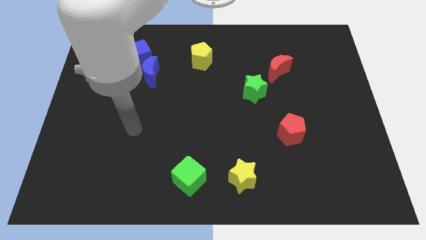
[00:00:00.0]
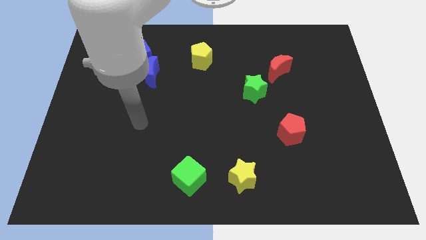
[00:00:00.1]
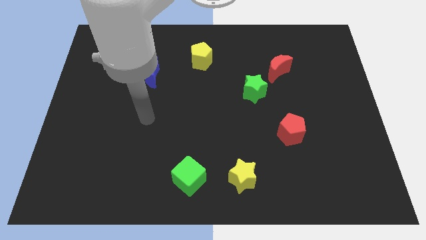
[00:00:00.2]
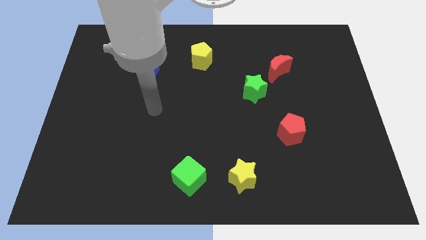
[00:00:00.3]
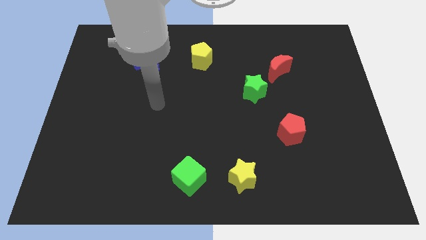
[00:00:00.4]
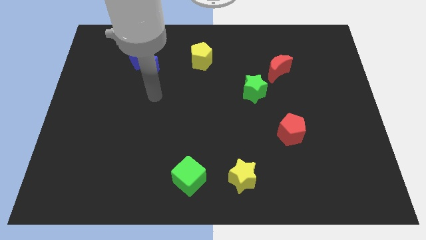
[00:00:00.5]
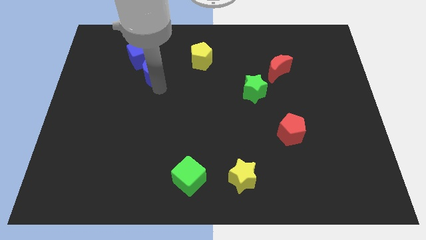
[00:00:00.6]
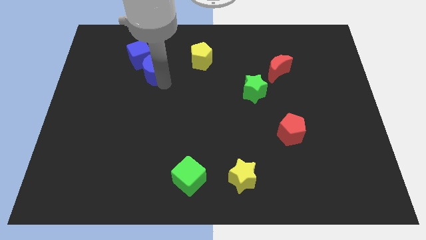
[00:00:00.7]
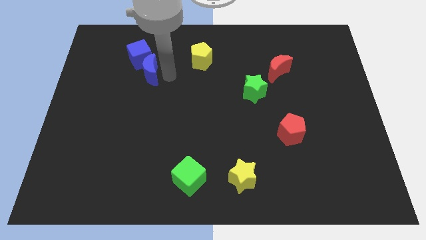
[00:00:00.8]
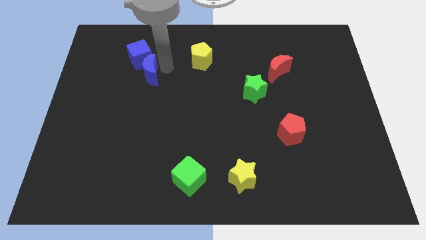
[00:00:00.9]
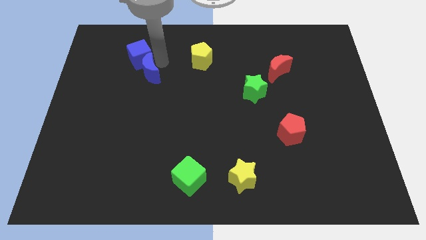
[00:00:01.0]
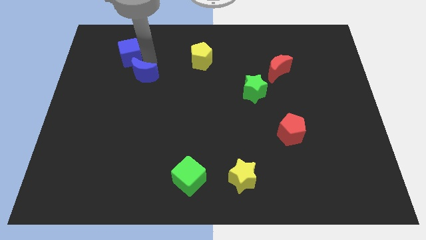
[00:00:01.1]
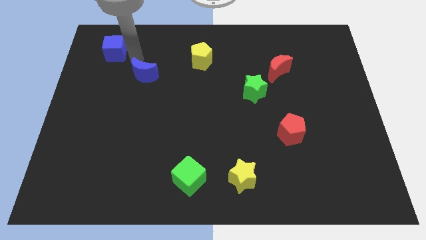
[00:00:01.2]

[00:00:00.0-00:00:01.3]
separate the blue moon from the blue cube

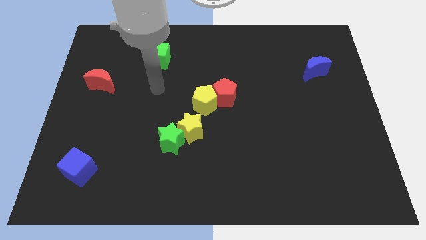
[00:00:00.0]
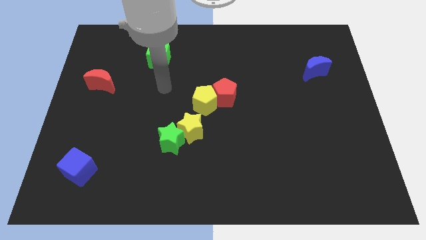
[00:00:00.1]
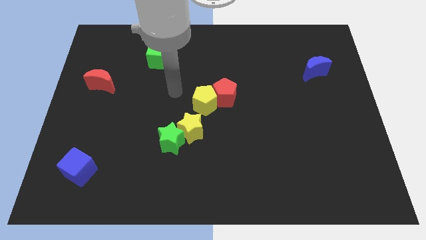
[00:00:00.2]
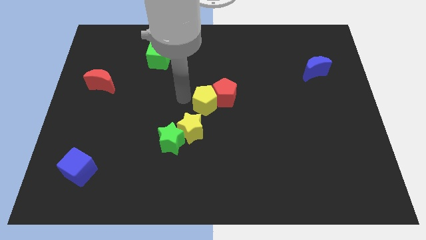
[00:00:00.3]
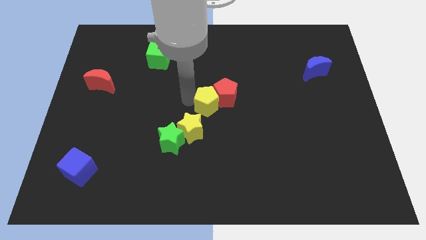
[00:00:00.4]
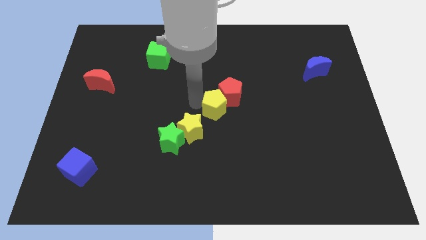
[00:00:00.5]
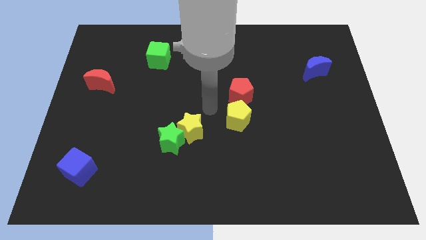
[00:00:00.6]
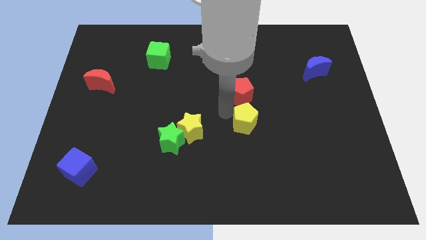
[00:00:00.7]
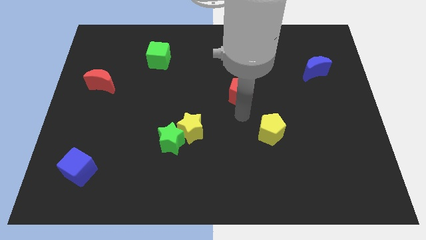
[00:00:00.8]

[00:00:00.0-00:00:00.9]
pull the red pentagon apart from the yellow pentagon

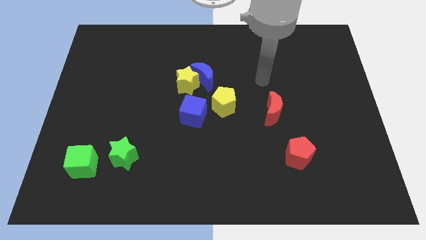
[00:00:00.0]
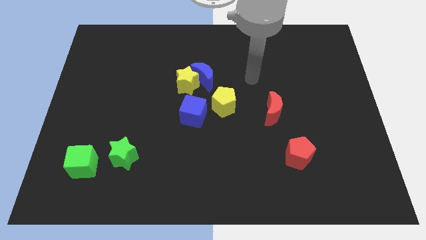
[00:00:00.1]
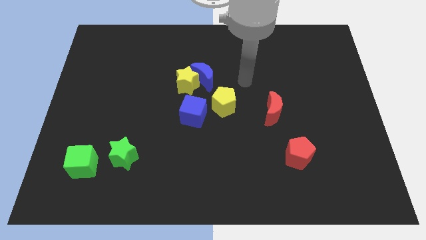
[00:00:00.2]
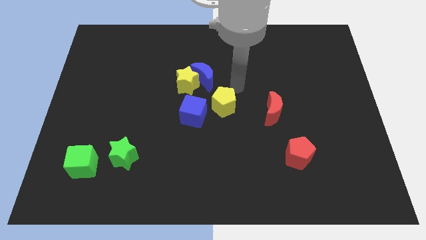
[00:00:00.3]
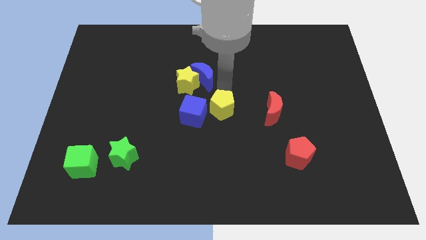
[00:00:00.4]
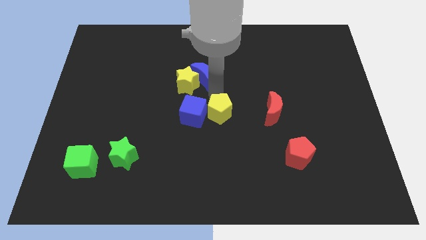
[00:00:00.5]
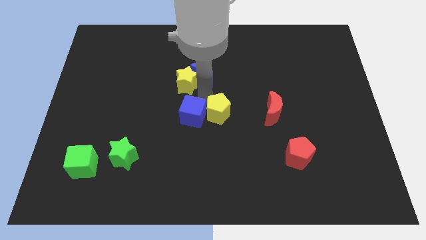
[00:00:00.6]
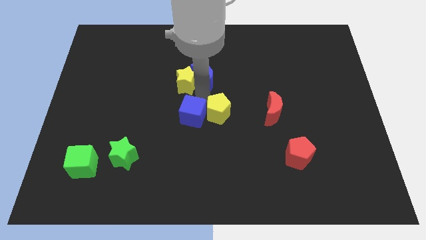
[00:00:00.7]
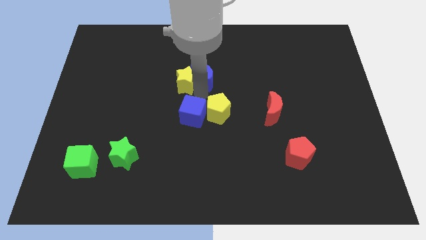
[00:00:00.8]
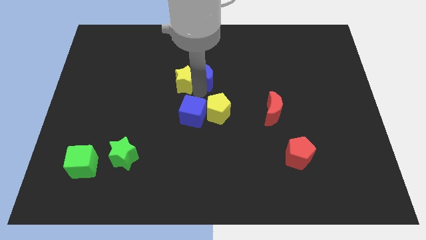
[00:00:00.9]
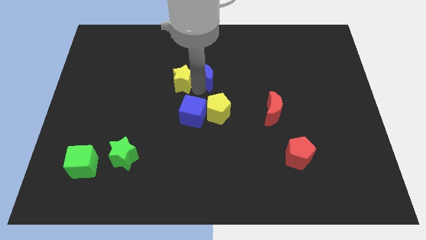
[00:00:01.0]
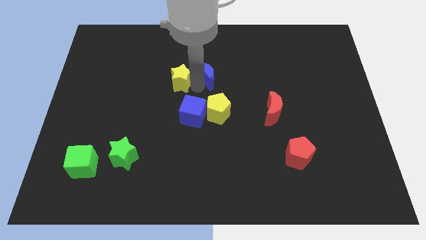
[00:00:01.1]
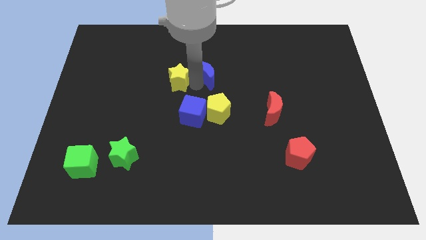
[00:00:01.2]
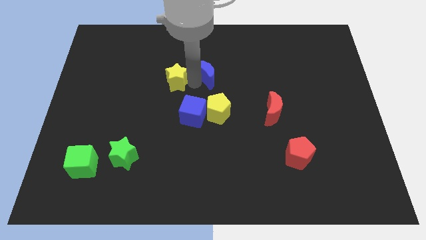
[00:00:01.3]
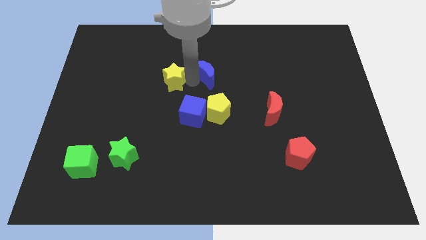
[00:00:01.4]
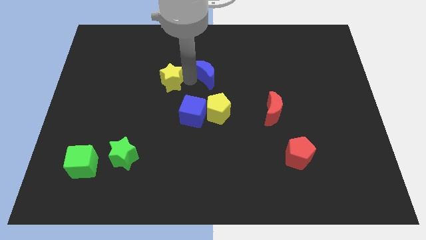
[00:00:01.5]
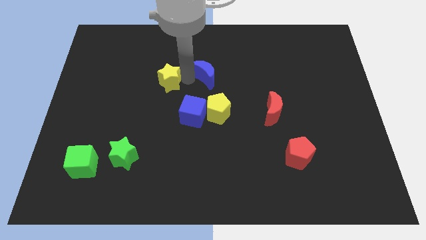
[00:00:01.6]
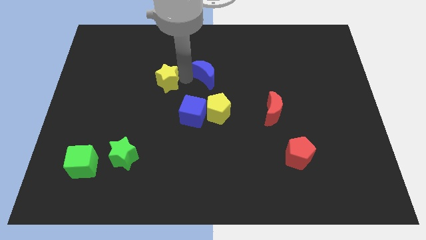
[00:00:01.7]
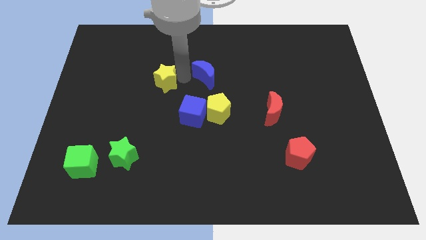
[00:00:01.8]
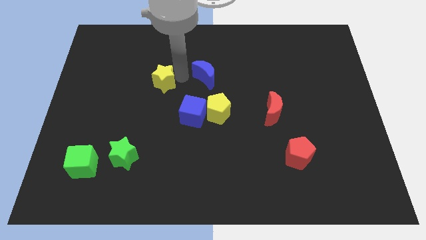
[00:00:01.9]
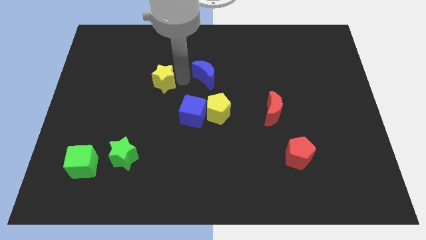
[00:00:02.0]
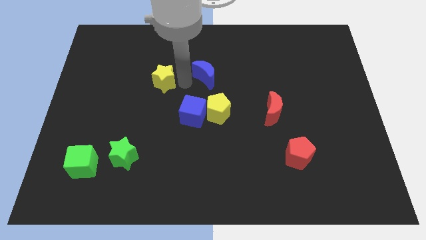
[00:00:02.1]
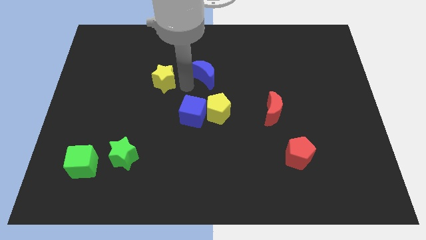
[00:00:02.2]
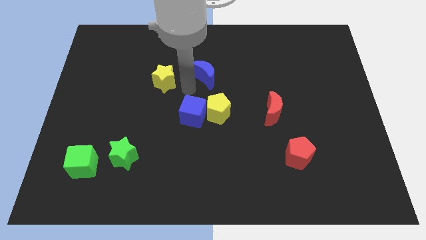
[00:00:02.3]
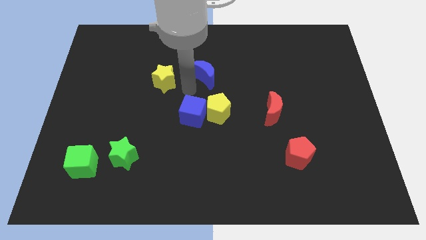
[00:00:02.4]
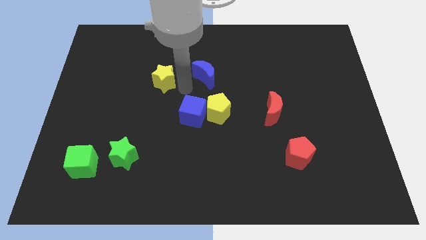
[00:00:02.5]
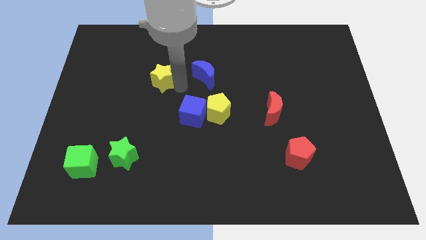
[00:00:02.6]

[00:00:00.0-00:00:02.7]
move the yellow star away from the blue moon and blue cube

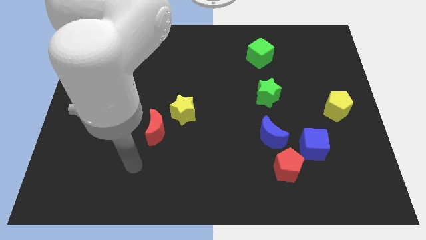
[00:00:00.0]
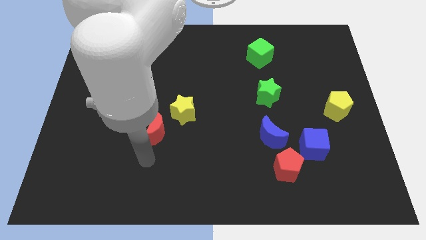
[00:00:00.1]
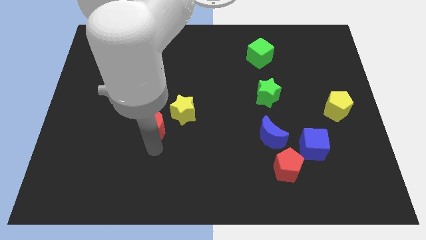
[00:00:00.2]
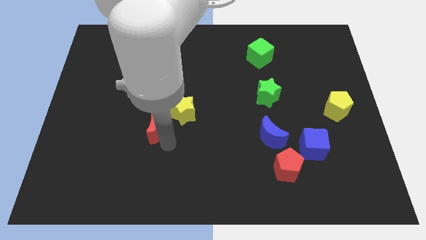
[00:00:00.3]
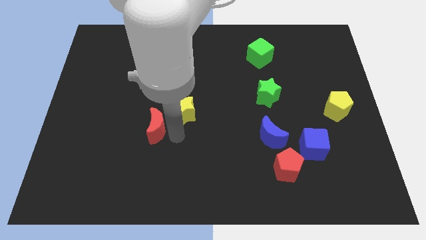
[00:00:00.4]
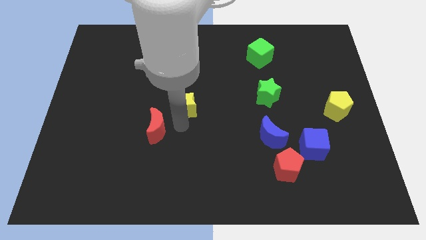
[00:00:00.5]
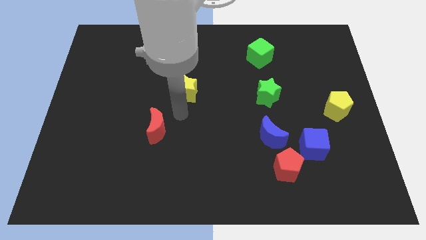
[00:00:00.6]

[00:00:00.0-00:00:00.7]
pull the red moon apart from the yellow star

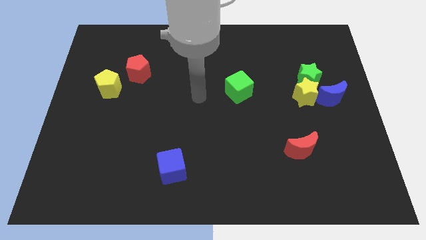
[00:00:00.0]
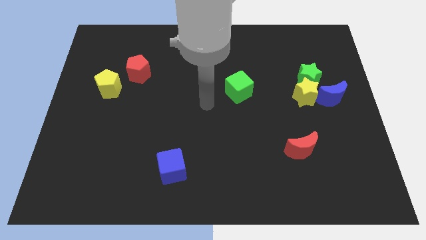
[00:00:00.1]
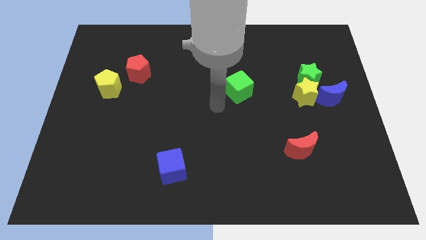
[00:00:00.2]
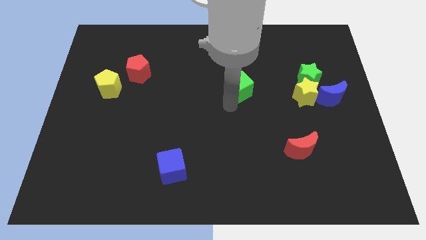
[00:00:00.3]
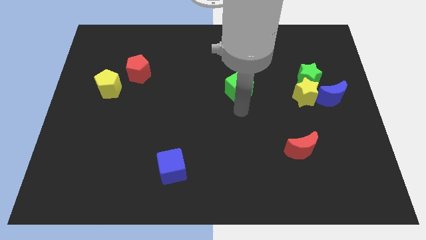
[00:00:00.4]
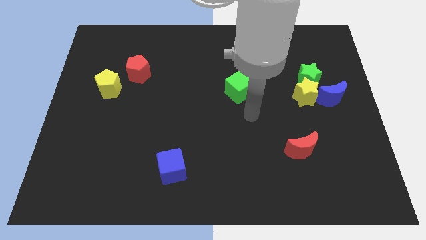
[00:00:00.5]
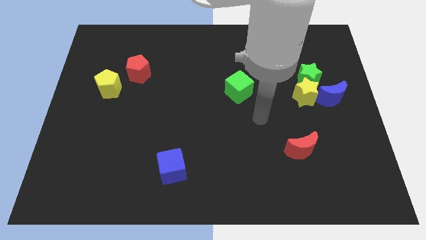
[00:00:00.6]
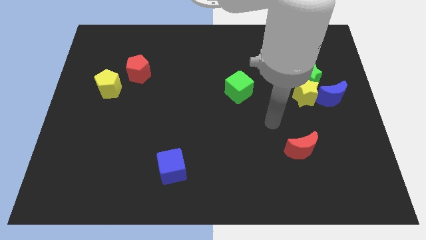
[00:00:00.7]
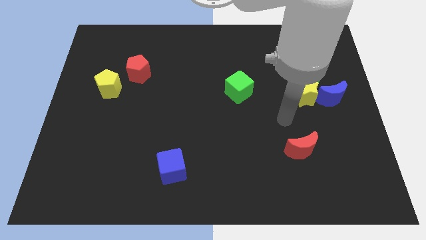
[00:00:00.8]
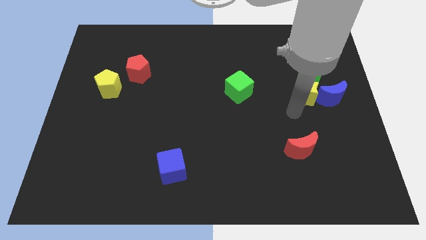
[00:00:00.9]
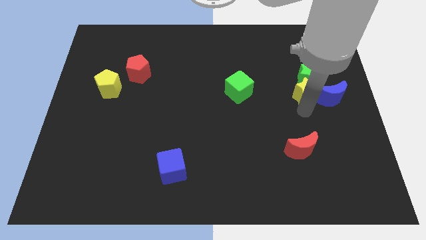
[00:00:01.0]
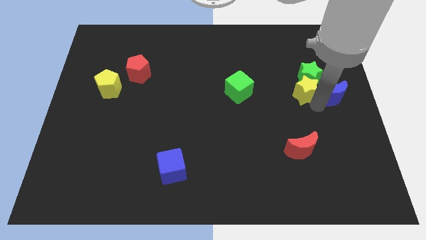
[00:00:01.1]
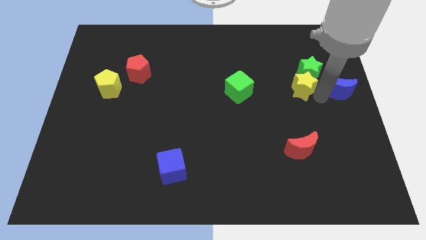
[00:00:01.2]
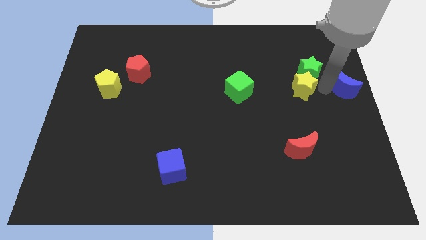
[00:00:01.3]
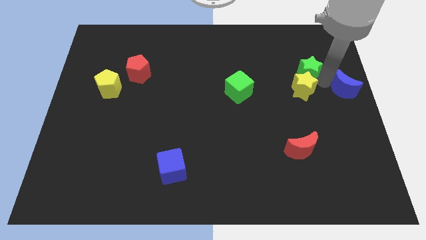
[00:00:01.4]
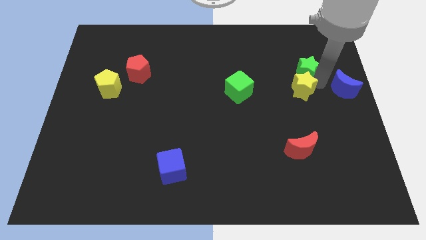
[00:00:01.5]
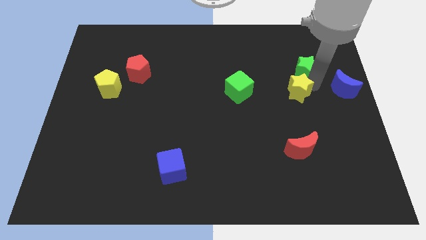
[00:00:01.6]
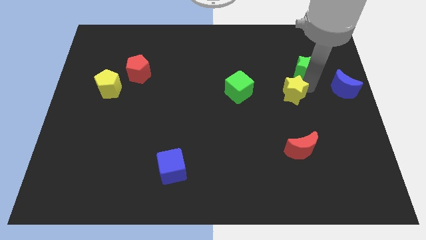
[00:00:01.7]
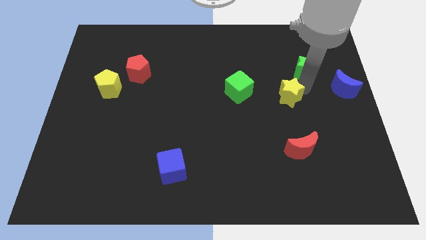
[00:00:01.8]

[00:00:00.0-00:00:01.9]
move the yellow star away from the green star and blue moon

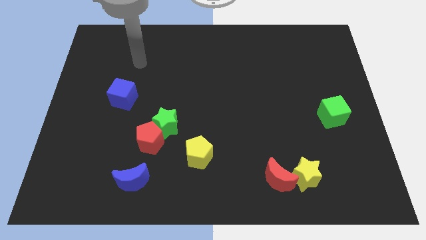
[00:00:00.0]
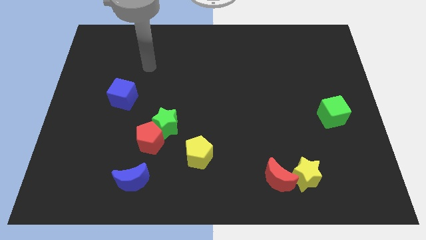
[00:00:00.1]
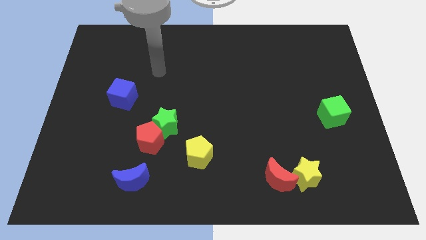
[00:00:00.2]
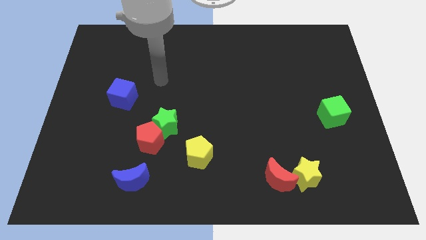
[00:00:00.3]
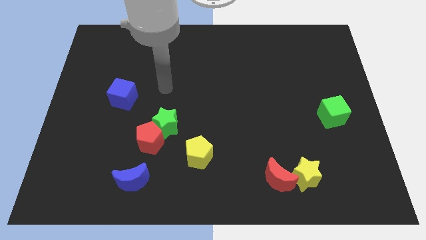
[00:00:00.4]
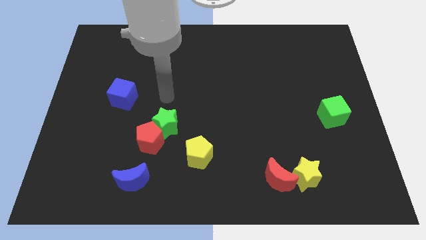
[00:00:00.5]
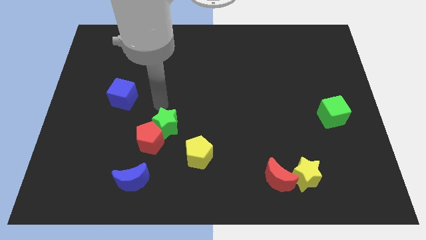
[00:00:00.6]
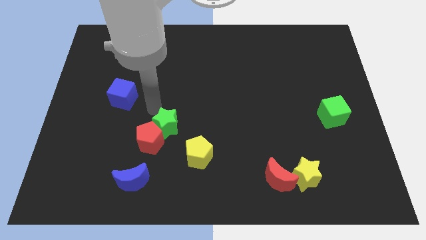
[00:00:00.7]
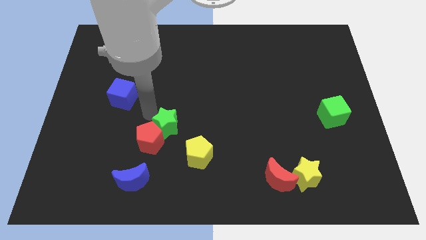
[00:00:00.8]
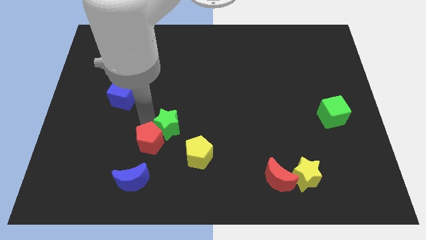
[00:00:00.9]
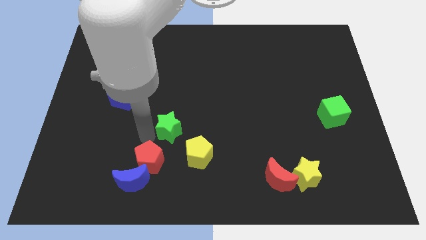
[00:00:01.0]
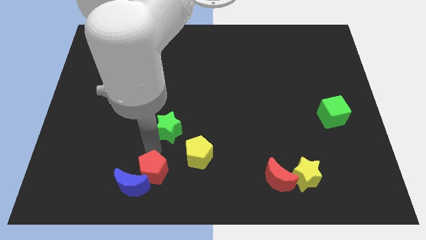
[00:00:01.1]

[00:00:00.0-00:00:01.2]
separate the green star from the red pentagon

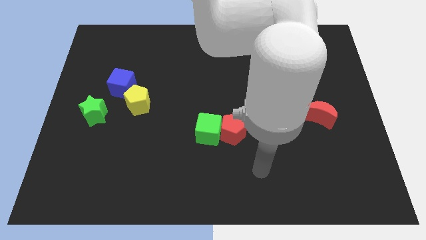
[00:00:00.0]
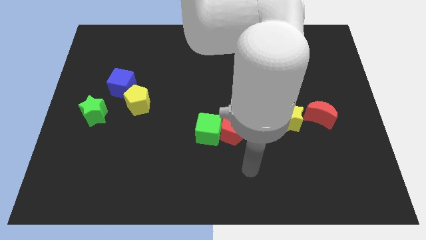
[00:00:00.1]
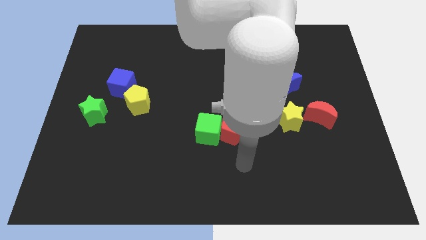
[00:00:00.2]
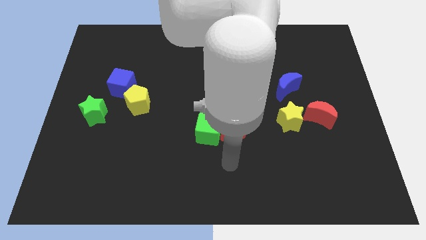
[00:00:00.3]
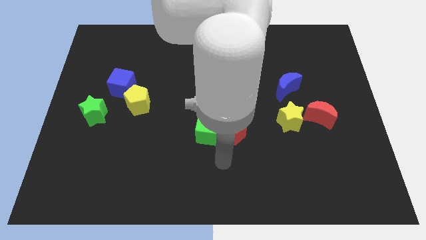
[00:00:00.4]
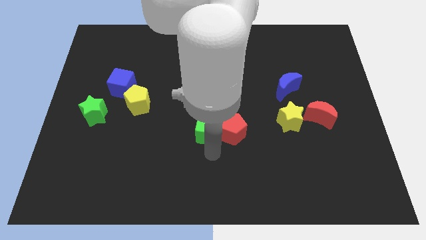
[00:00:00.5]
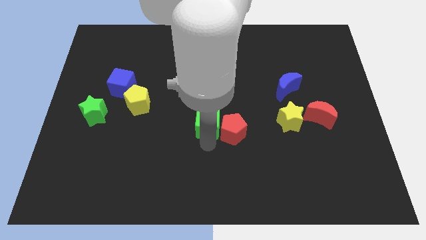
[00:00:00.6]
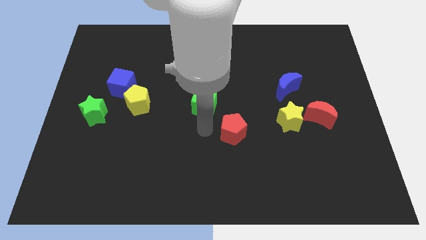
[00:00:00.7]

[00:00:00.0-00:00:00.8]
separate the red pentagon from the green cube
